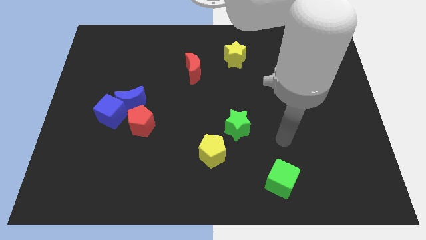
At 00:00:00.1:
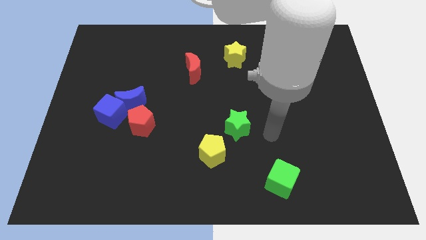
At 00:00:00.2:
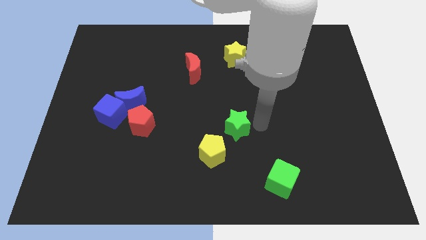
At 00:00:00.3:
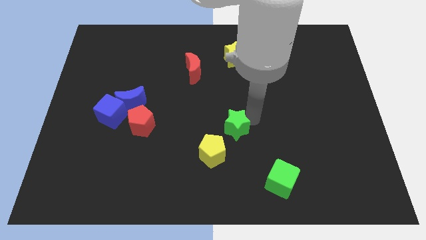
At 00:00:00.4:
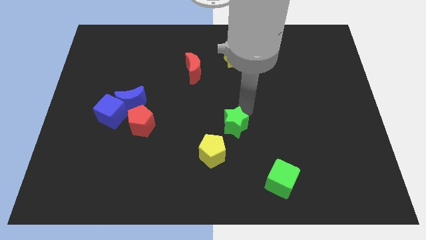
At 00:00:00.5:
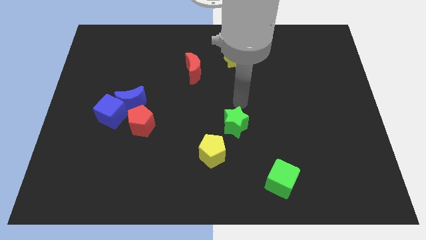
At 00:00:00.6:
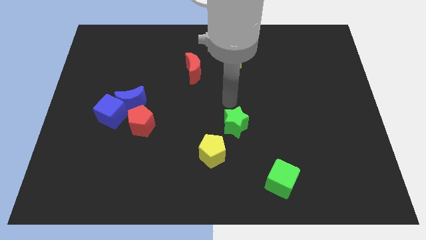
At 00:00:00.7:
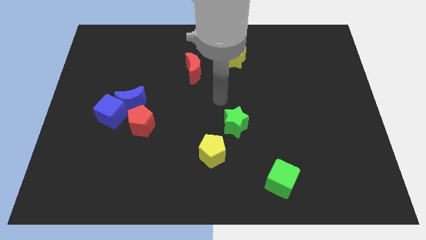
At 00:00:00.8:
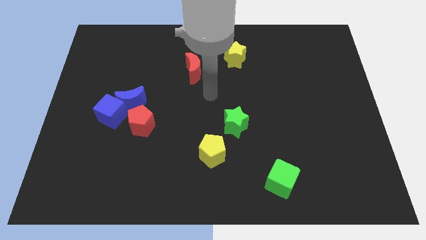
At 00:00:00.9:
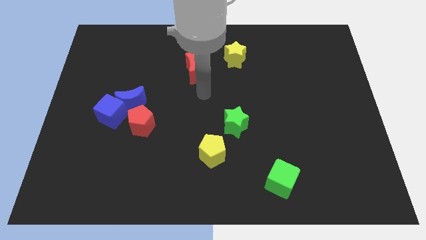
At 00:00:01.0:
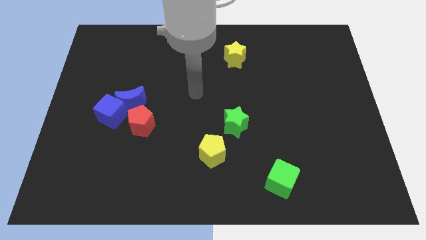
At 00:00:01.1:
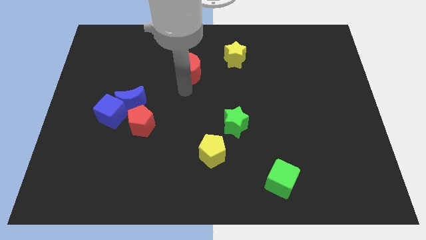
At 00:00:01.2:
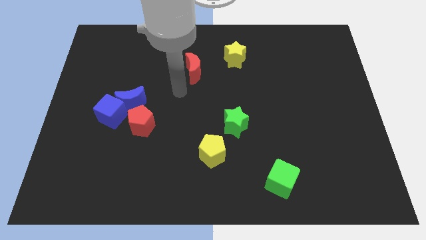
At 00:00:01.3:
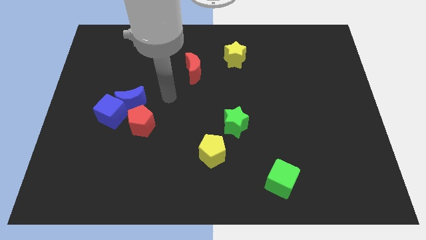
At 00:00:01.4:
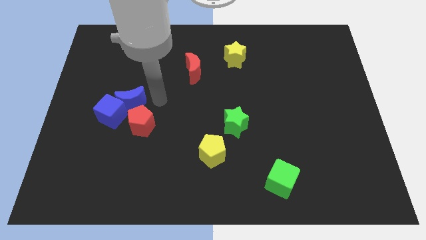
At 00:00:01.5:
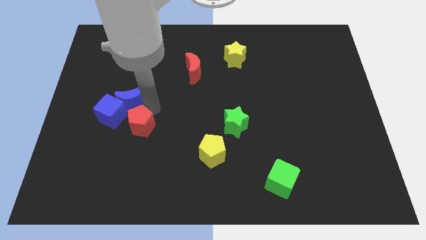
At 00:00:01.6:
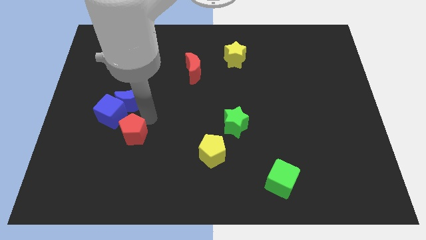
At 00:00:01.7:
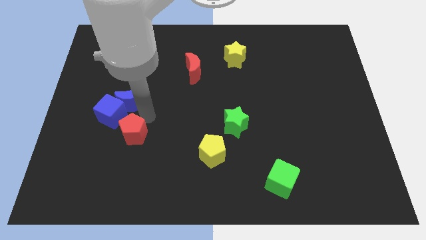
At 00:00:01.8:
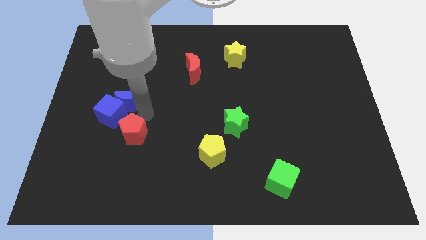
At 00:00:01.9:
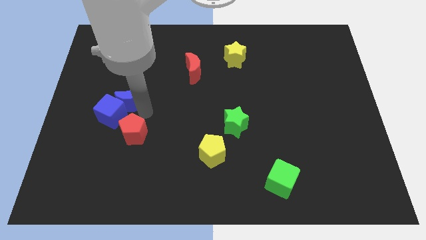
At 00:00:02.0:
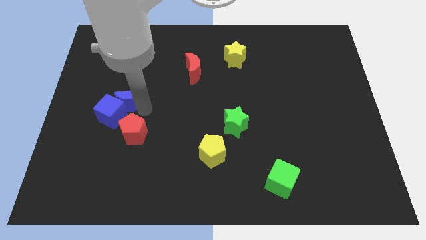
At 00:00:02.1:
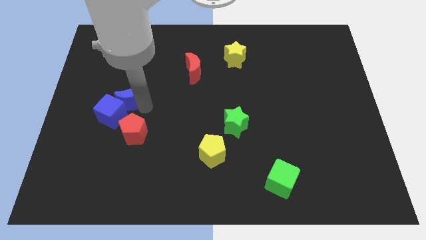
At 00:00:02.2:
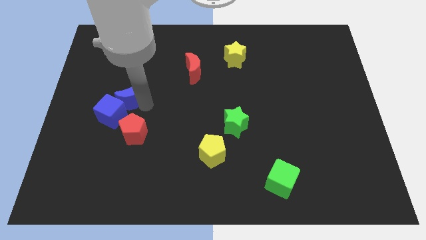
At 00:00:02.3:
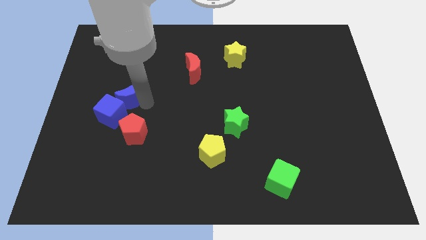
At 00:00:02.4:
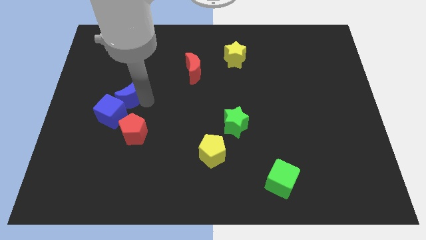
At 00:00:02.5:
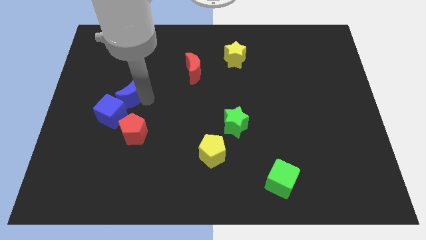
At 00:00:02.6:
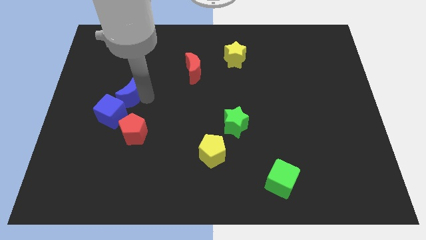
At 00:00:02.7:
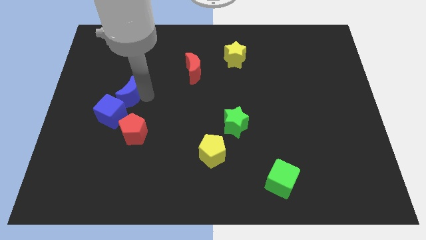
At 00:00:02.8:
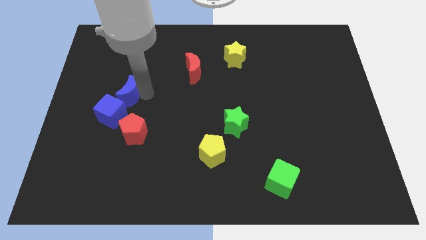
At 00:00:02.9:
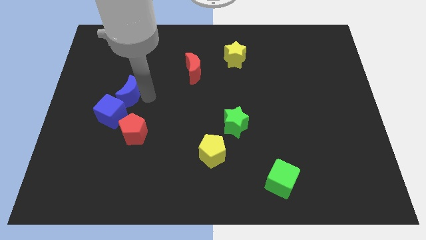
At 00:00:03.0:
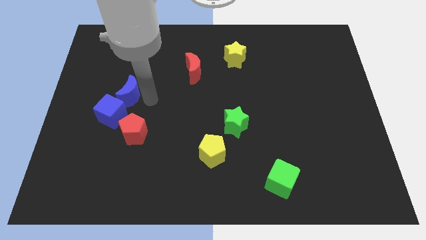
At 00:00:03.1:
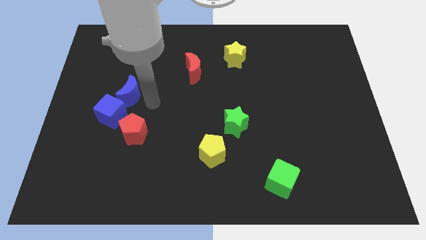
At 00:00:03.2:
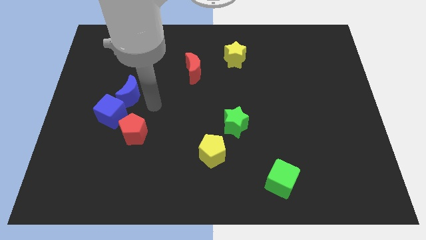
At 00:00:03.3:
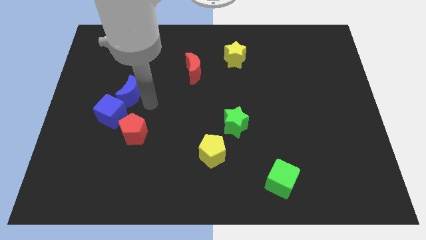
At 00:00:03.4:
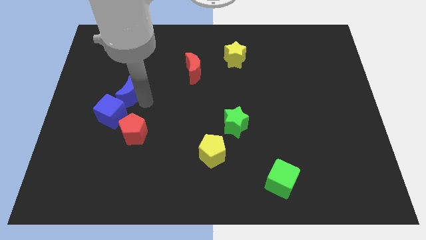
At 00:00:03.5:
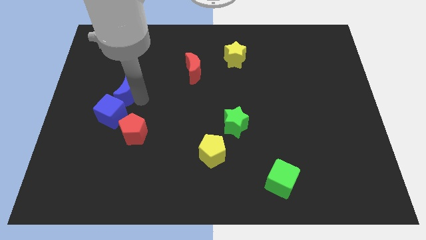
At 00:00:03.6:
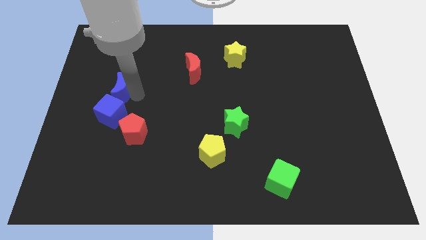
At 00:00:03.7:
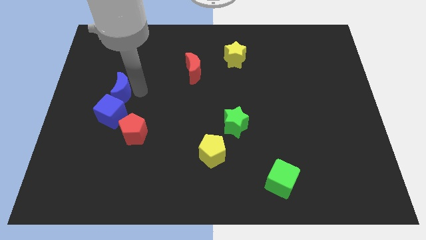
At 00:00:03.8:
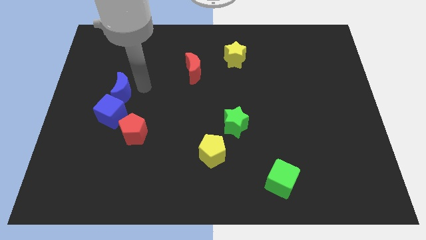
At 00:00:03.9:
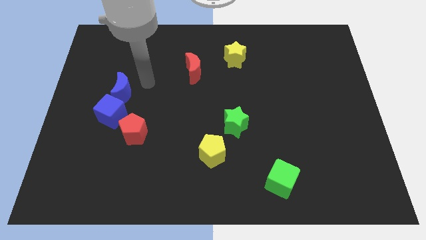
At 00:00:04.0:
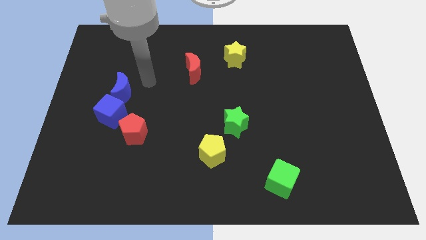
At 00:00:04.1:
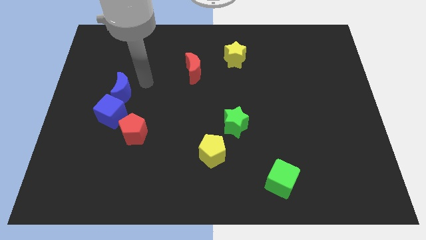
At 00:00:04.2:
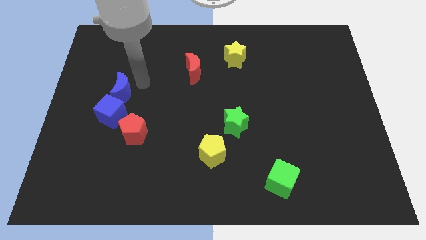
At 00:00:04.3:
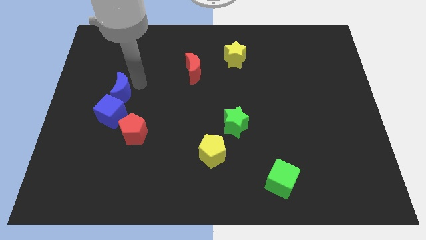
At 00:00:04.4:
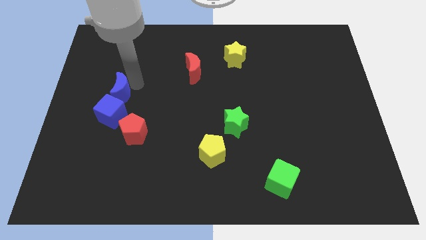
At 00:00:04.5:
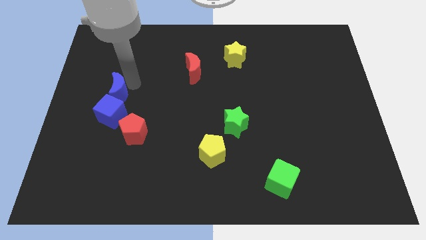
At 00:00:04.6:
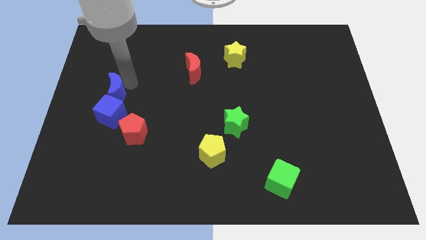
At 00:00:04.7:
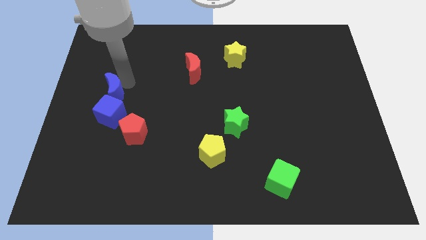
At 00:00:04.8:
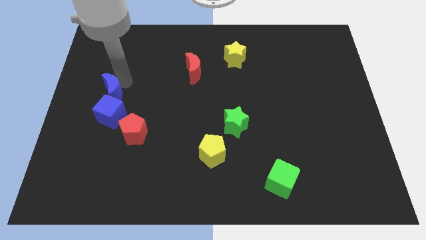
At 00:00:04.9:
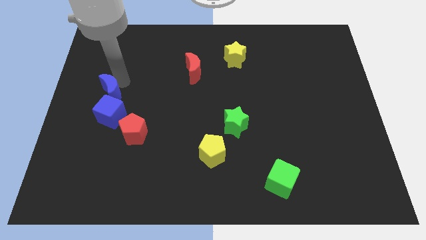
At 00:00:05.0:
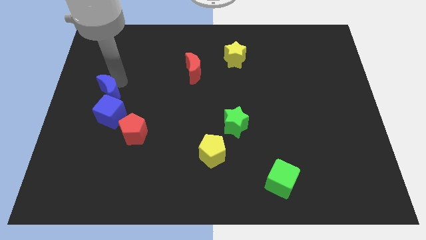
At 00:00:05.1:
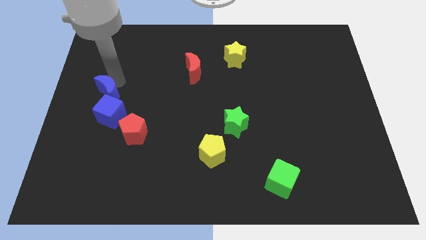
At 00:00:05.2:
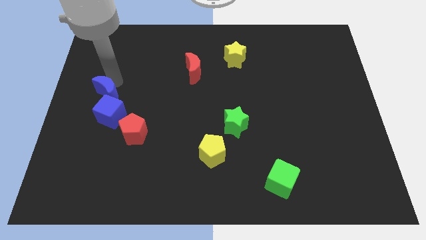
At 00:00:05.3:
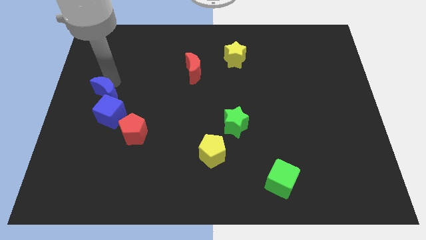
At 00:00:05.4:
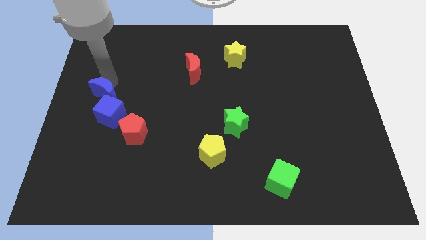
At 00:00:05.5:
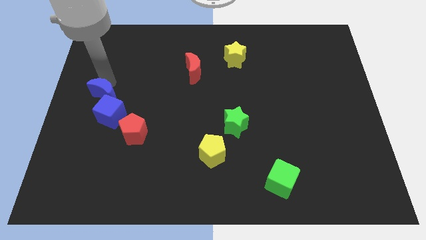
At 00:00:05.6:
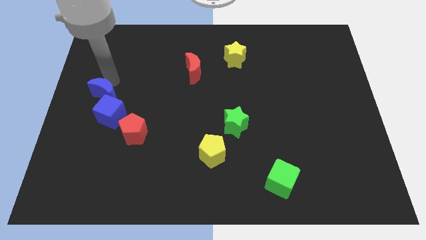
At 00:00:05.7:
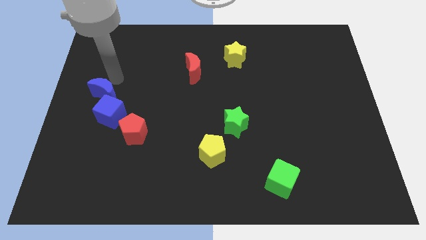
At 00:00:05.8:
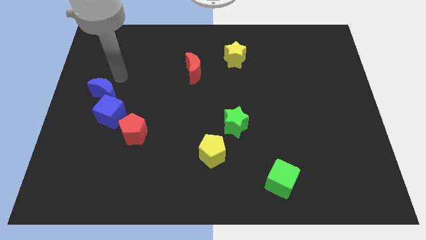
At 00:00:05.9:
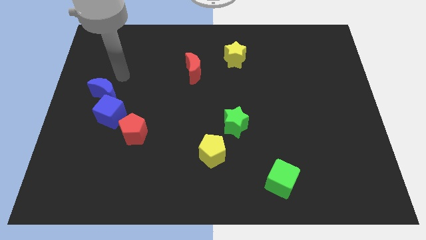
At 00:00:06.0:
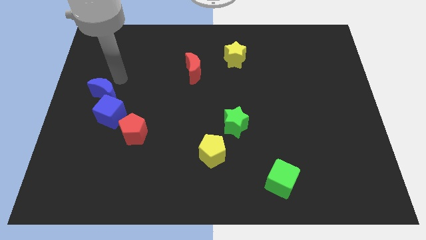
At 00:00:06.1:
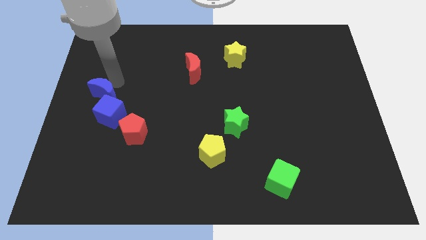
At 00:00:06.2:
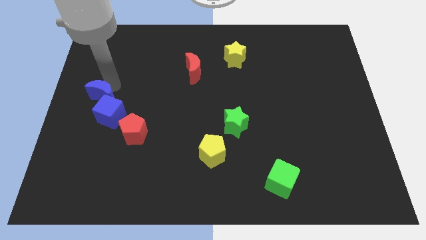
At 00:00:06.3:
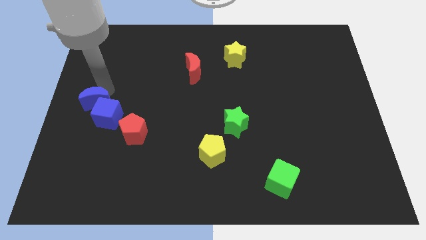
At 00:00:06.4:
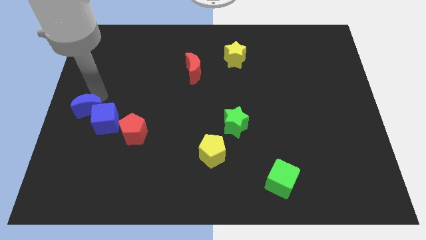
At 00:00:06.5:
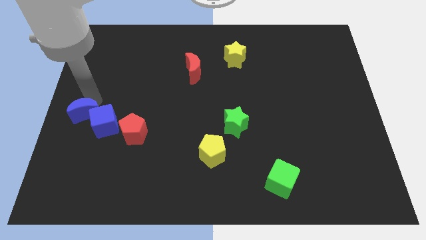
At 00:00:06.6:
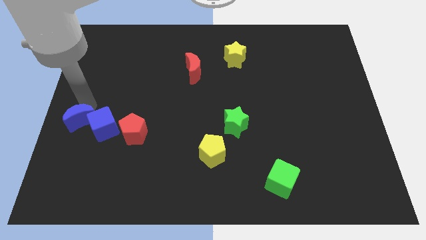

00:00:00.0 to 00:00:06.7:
put the blue moon left of the red pentagon

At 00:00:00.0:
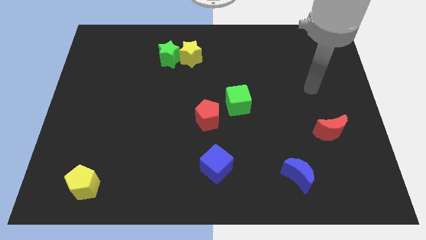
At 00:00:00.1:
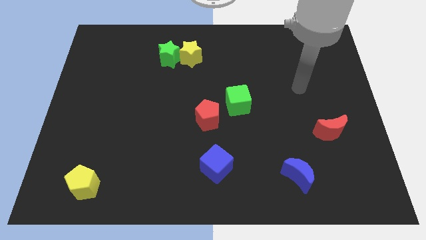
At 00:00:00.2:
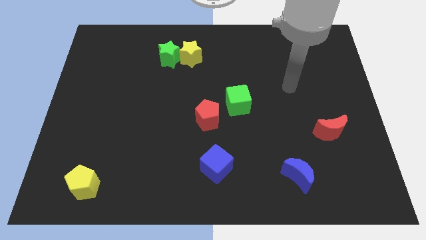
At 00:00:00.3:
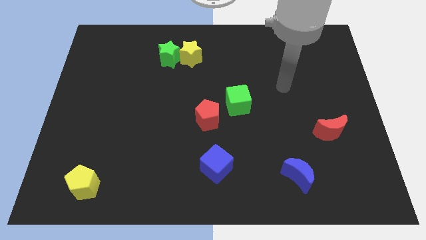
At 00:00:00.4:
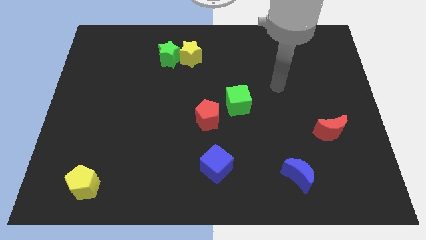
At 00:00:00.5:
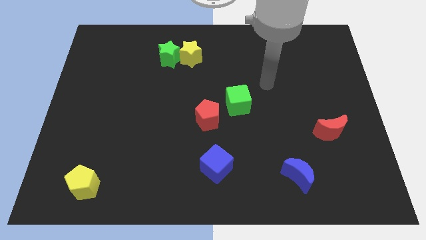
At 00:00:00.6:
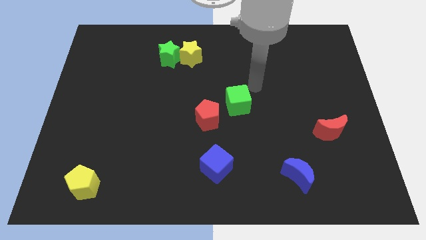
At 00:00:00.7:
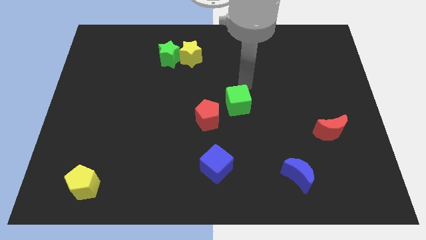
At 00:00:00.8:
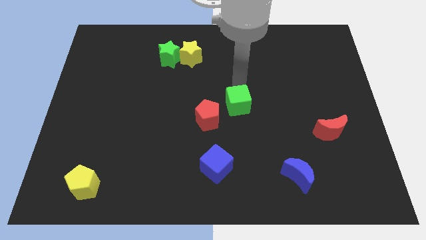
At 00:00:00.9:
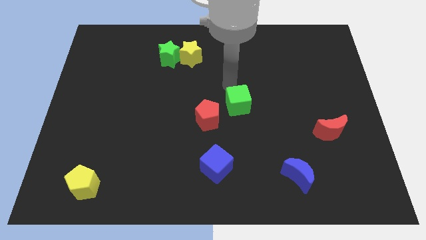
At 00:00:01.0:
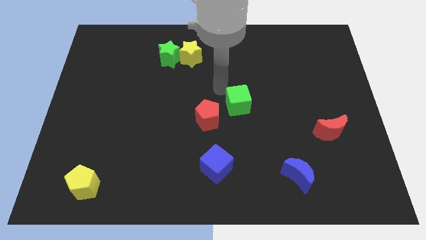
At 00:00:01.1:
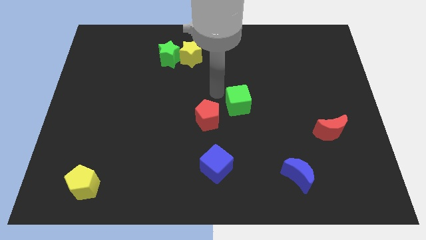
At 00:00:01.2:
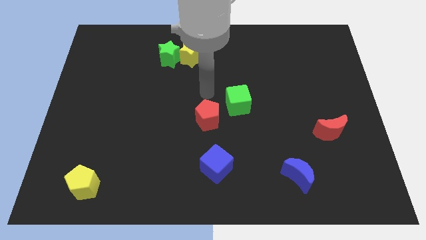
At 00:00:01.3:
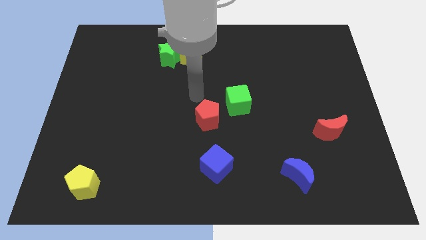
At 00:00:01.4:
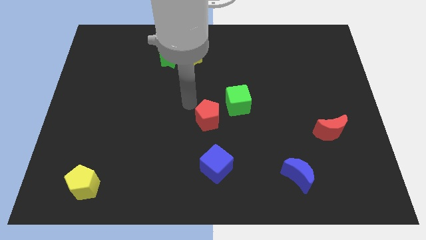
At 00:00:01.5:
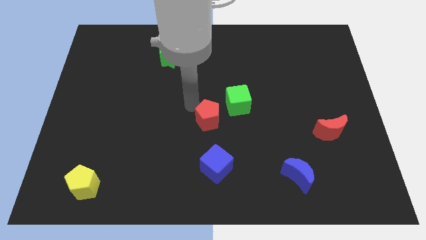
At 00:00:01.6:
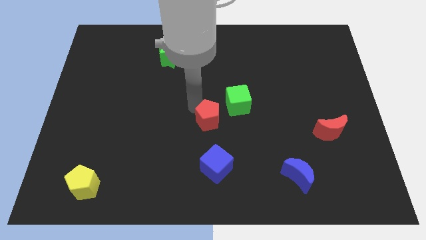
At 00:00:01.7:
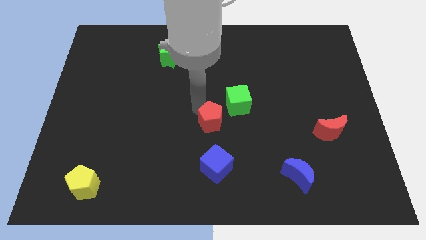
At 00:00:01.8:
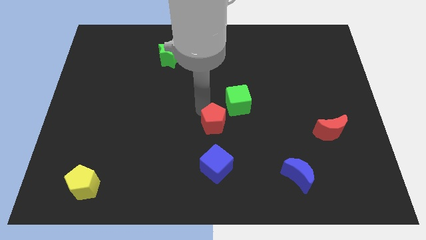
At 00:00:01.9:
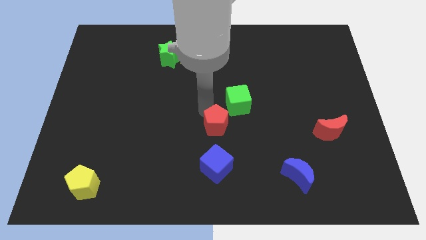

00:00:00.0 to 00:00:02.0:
push the red pentagon below the green cube
